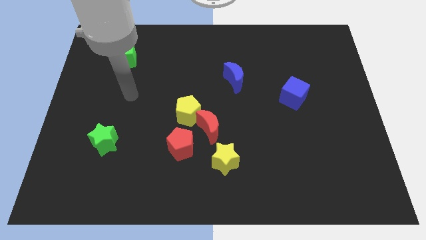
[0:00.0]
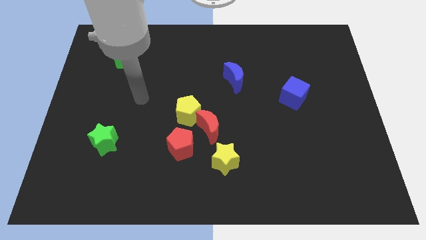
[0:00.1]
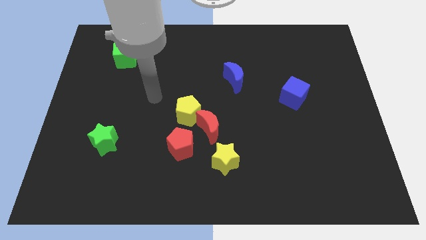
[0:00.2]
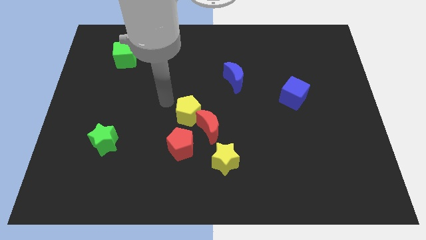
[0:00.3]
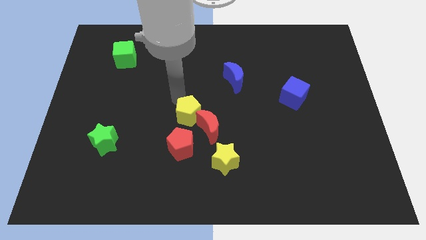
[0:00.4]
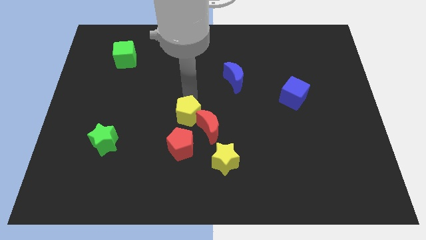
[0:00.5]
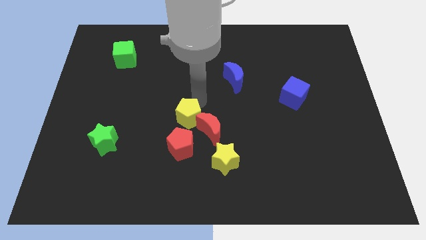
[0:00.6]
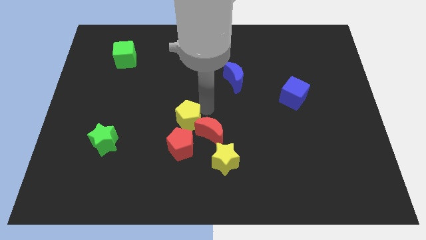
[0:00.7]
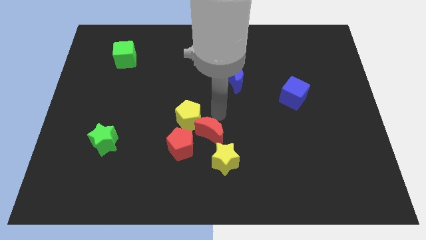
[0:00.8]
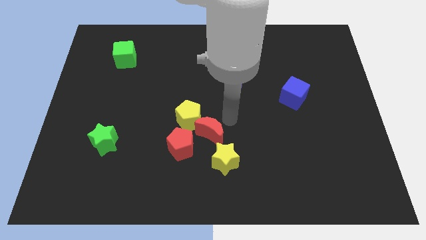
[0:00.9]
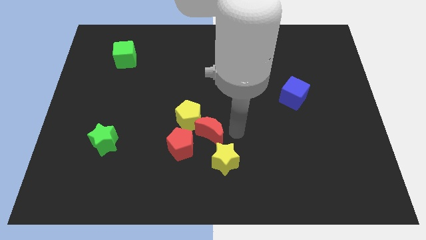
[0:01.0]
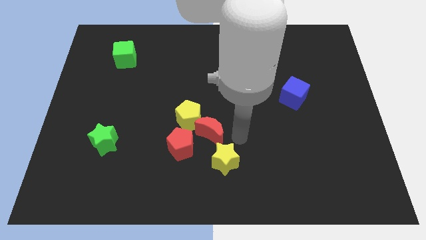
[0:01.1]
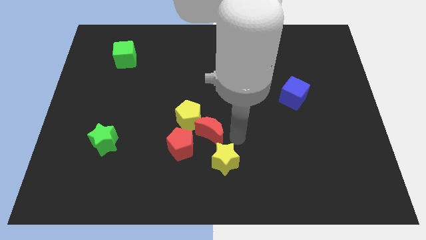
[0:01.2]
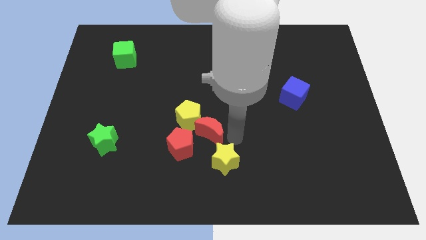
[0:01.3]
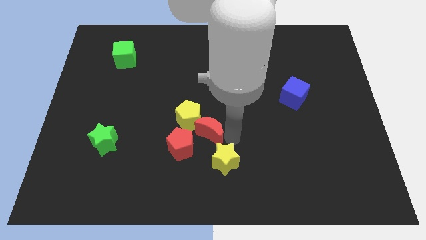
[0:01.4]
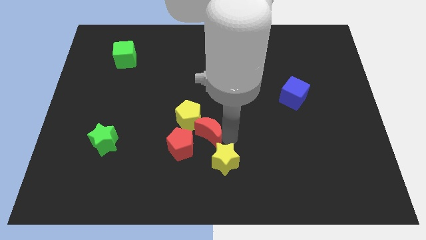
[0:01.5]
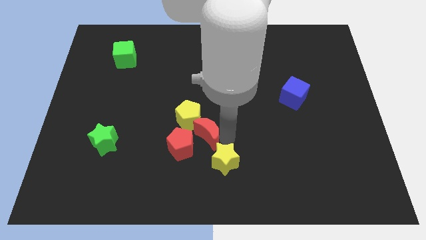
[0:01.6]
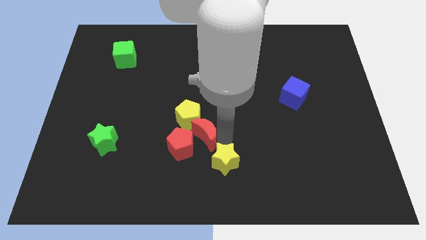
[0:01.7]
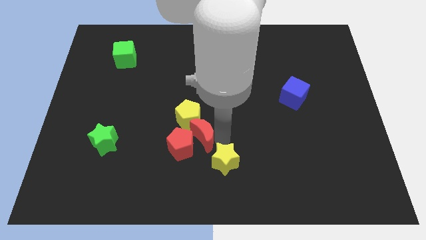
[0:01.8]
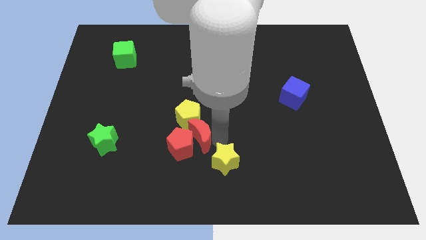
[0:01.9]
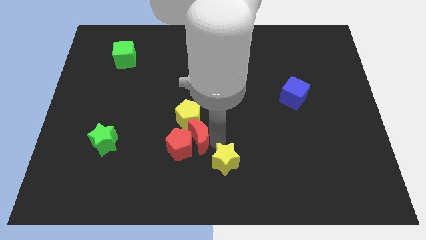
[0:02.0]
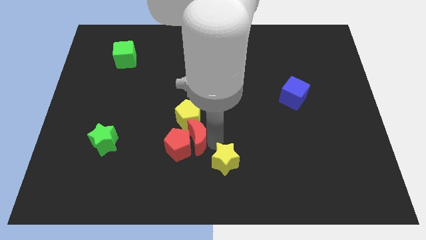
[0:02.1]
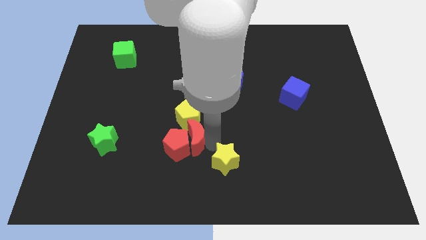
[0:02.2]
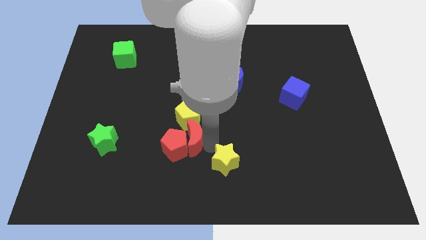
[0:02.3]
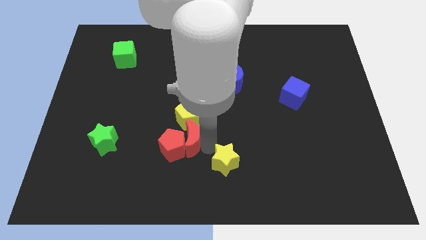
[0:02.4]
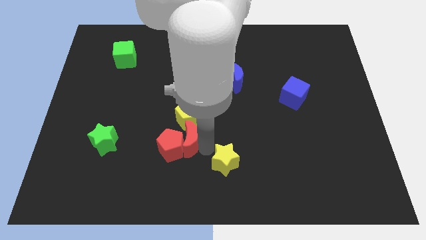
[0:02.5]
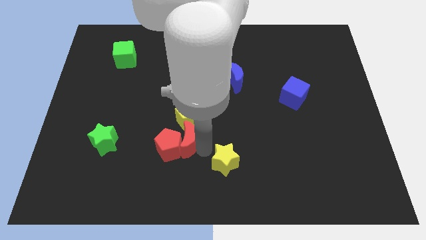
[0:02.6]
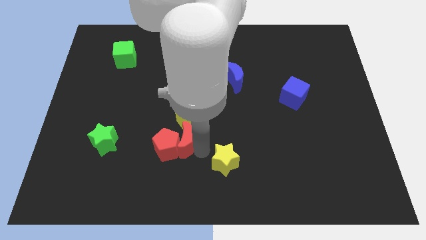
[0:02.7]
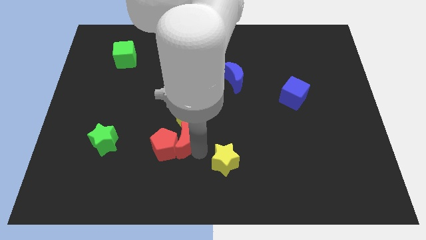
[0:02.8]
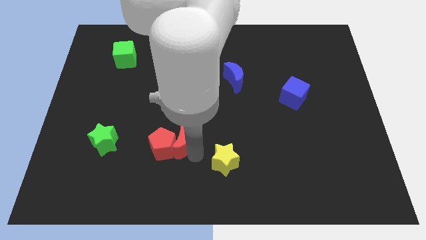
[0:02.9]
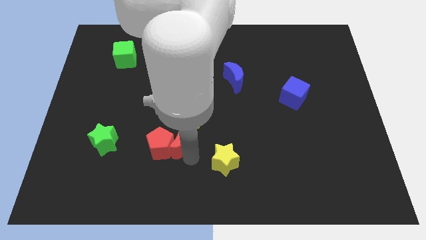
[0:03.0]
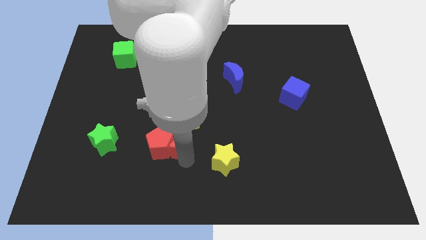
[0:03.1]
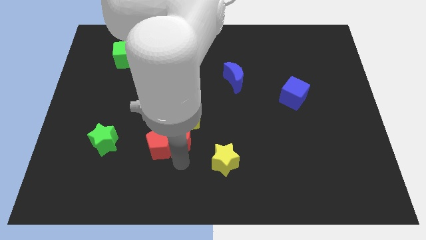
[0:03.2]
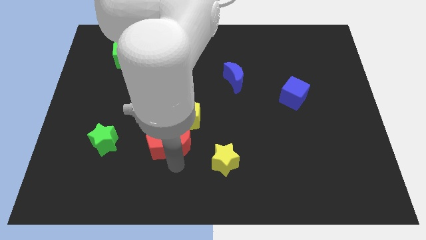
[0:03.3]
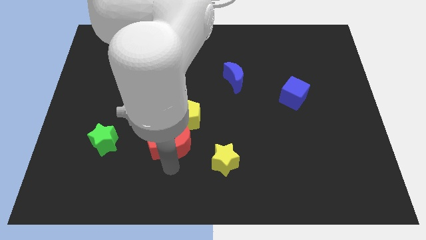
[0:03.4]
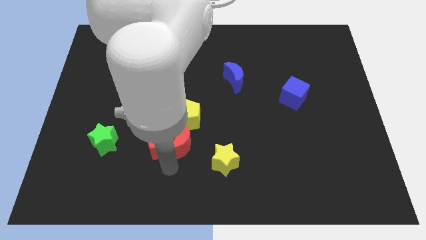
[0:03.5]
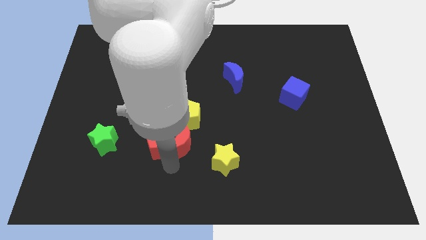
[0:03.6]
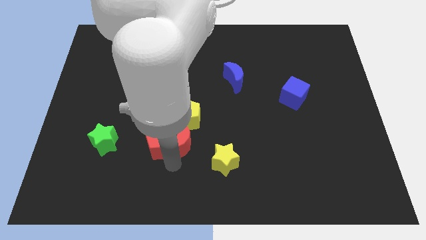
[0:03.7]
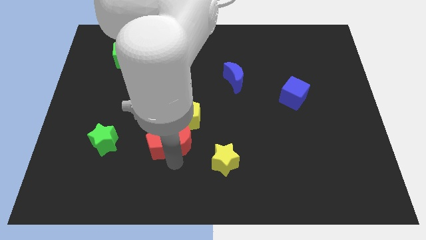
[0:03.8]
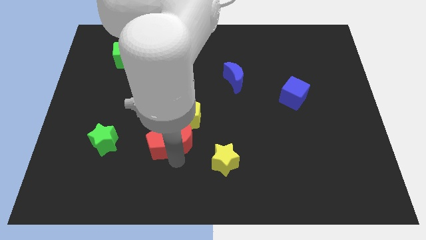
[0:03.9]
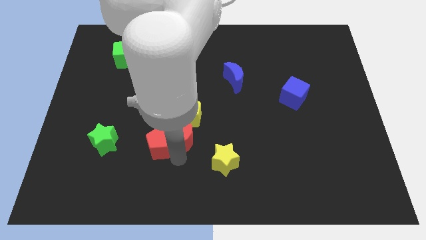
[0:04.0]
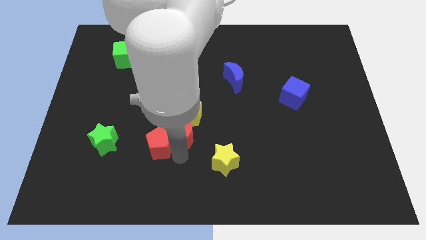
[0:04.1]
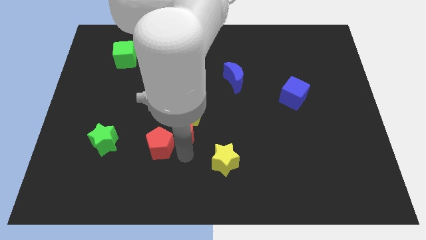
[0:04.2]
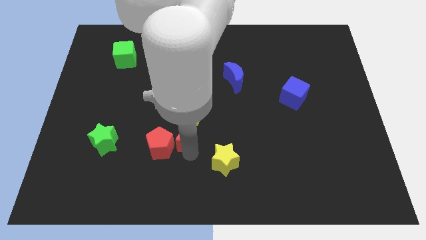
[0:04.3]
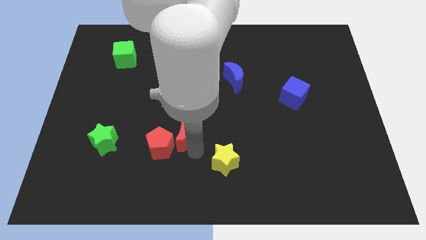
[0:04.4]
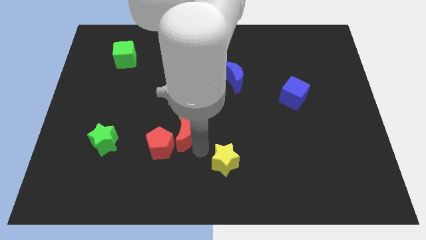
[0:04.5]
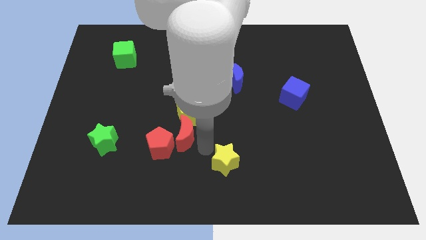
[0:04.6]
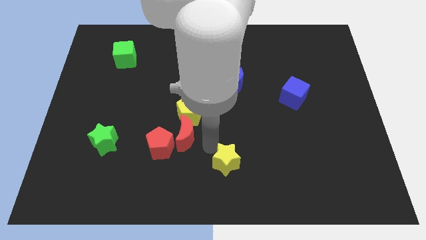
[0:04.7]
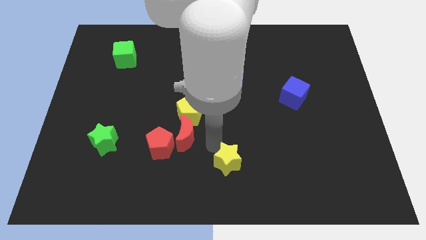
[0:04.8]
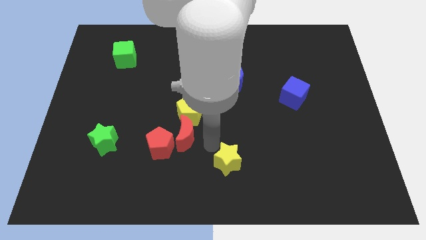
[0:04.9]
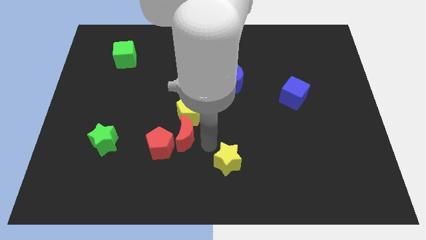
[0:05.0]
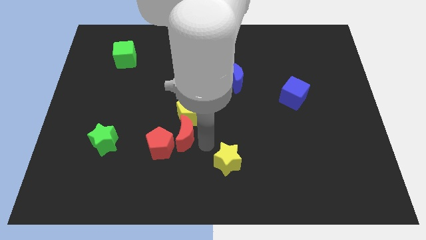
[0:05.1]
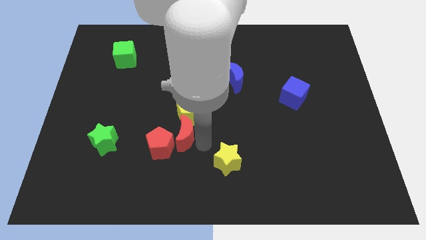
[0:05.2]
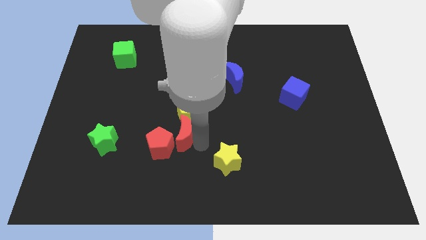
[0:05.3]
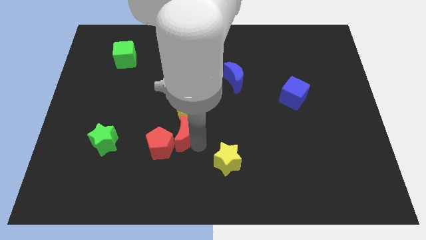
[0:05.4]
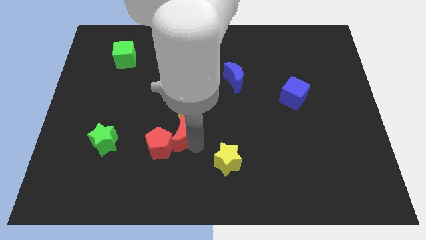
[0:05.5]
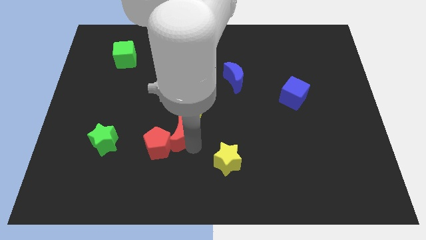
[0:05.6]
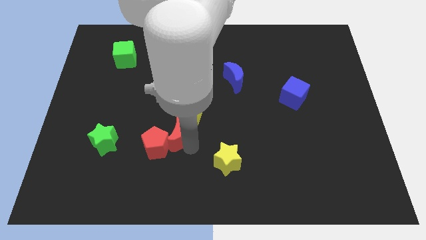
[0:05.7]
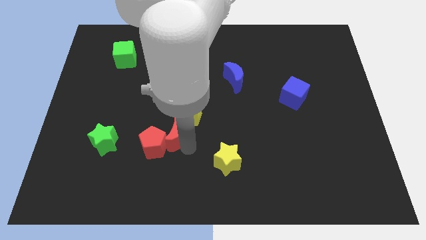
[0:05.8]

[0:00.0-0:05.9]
slightly slide the red moon to the left

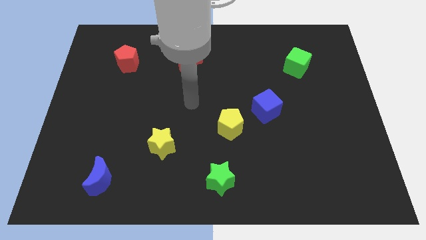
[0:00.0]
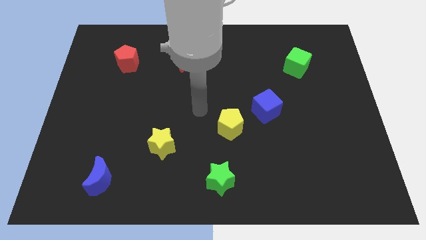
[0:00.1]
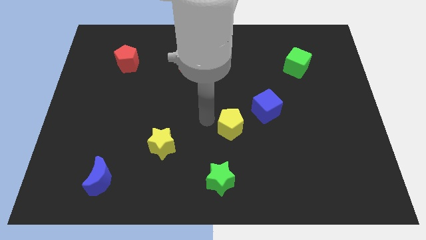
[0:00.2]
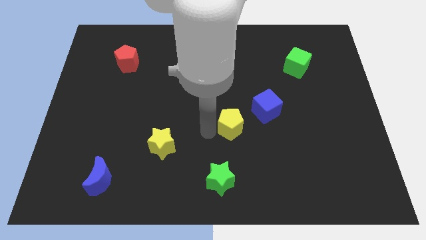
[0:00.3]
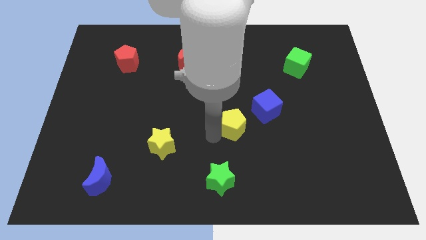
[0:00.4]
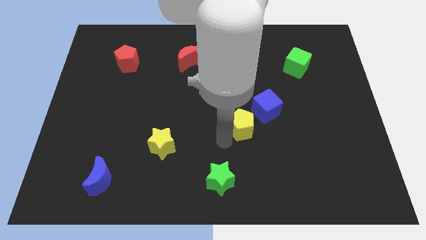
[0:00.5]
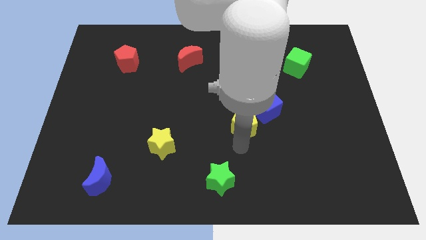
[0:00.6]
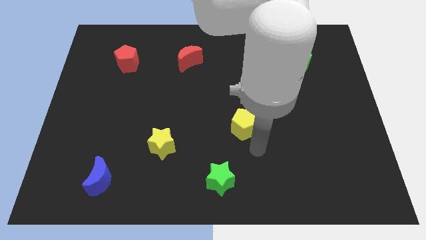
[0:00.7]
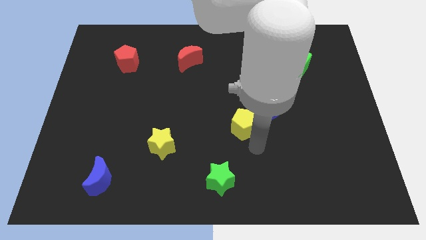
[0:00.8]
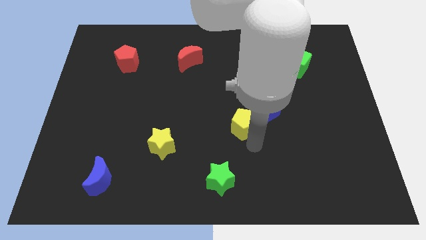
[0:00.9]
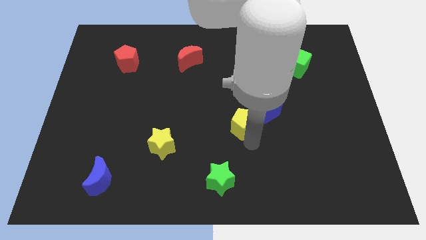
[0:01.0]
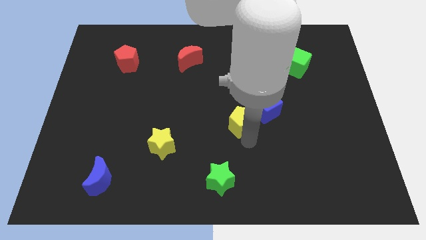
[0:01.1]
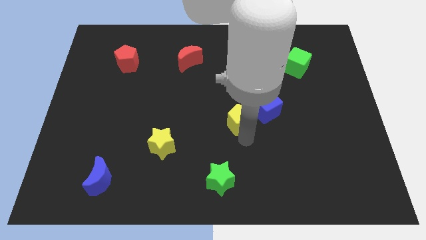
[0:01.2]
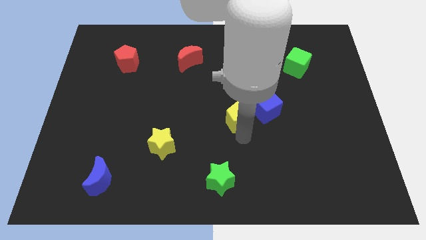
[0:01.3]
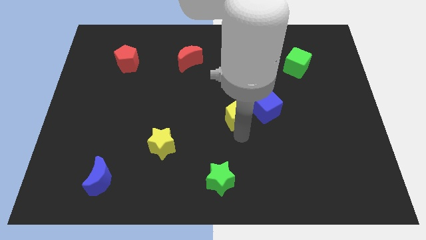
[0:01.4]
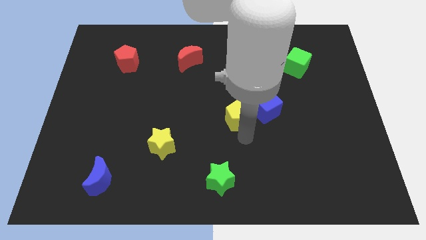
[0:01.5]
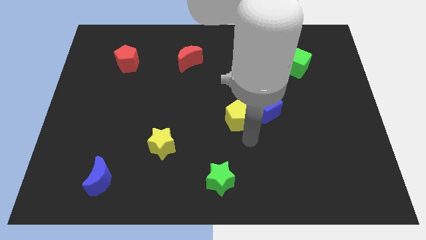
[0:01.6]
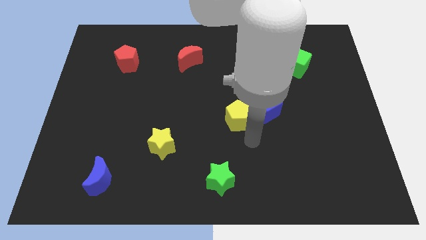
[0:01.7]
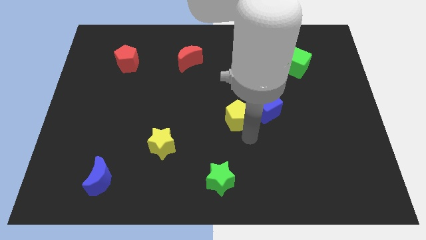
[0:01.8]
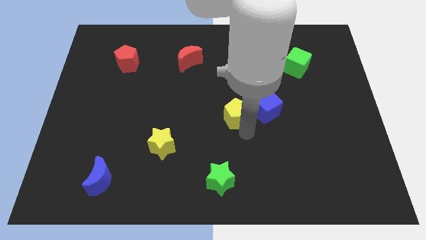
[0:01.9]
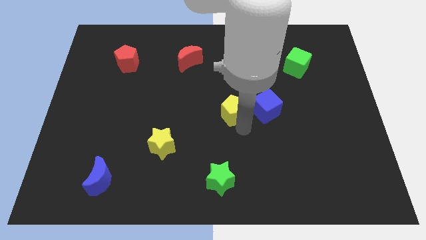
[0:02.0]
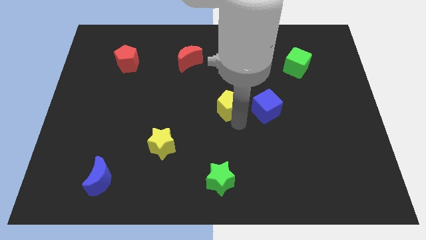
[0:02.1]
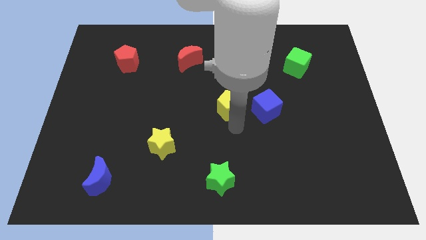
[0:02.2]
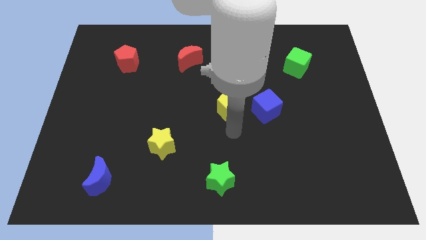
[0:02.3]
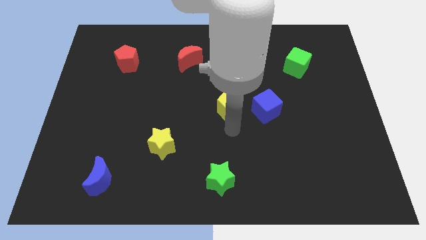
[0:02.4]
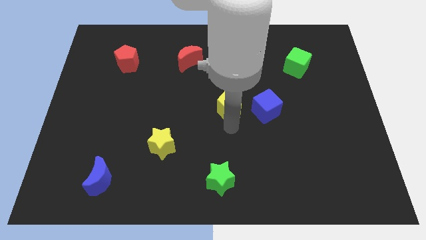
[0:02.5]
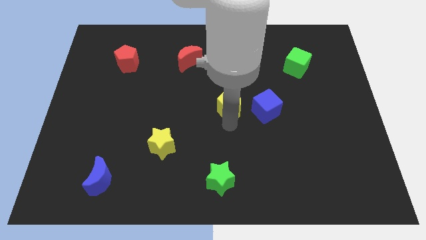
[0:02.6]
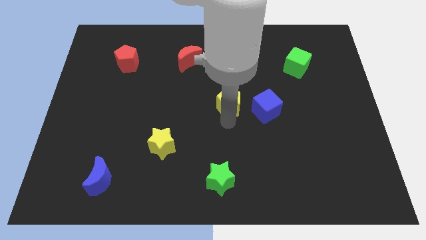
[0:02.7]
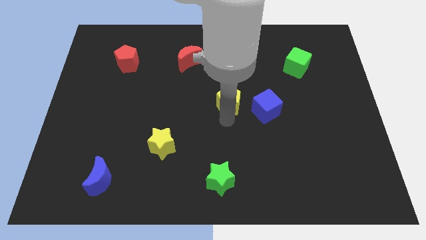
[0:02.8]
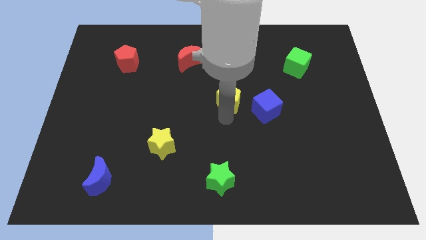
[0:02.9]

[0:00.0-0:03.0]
push the yellow pentagon up a little bit
